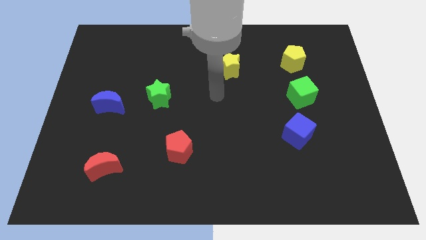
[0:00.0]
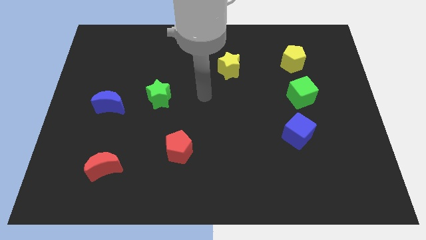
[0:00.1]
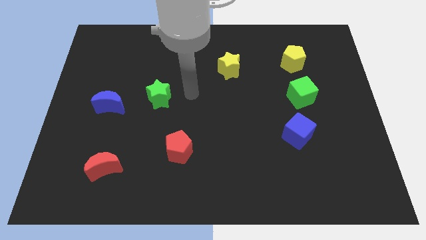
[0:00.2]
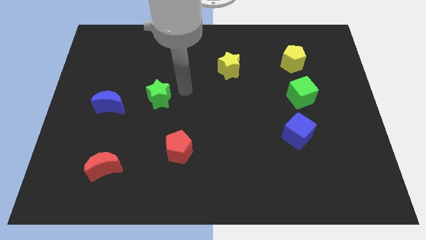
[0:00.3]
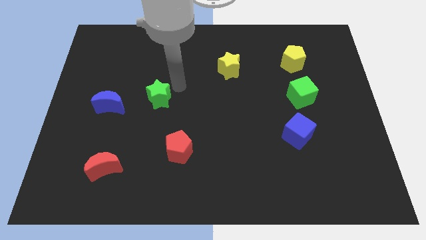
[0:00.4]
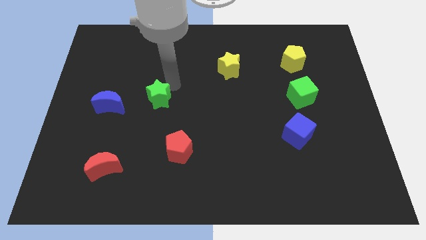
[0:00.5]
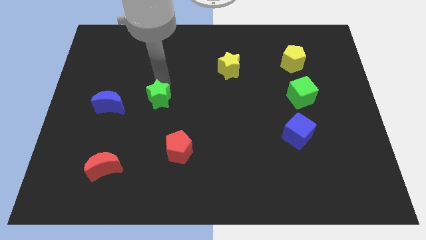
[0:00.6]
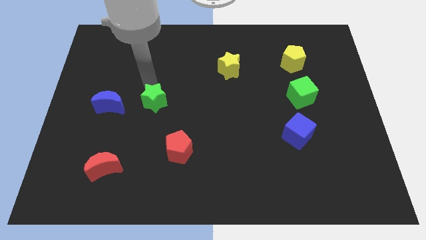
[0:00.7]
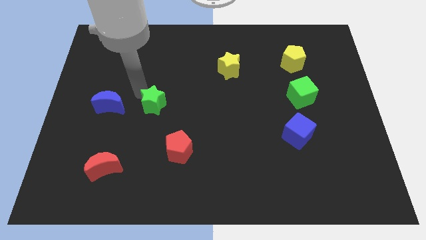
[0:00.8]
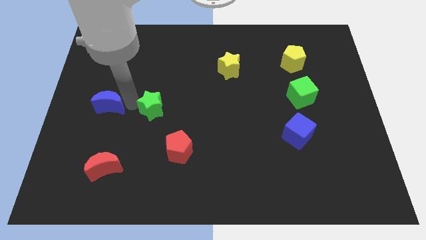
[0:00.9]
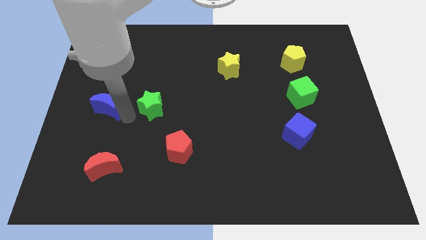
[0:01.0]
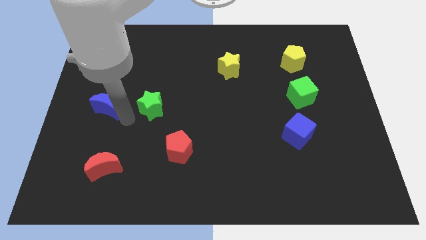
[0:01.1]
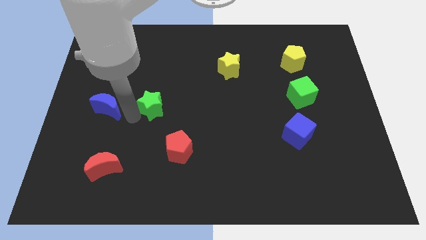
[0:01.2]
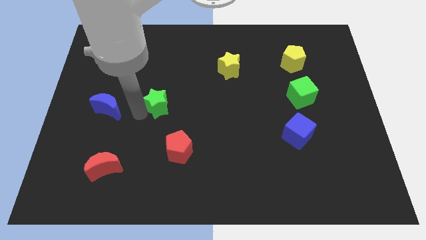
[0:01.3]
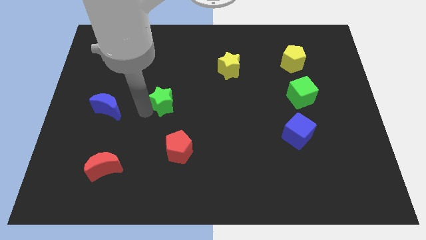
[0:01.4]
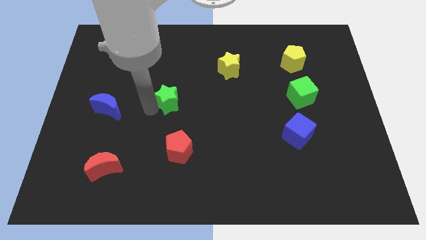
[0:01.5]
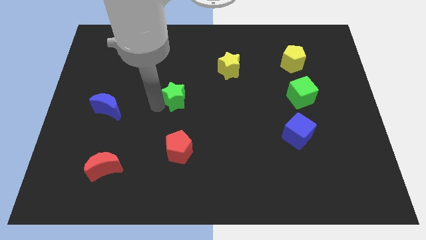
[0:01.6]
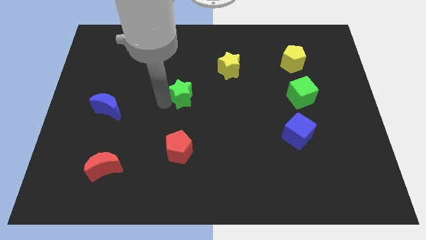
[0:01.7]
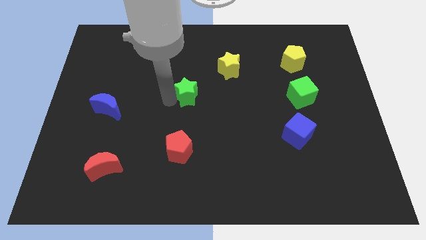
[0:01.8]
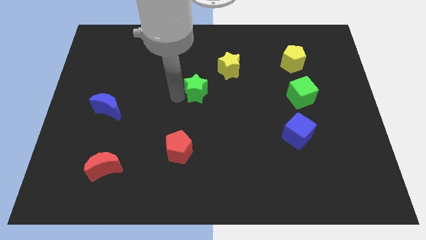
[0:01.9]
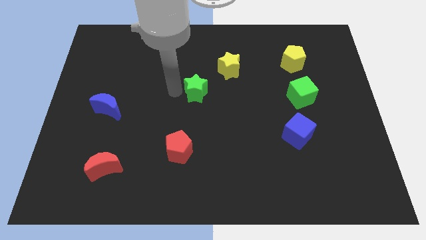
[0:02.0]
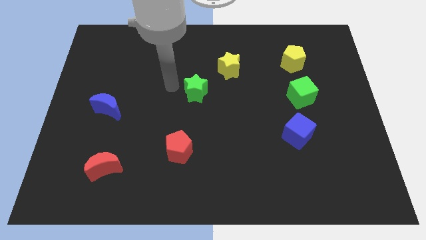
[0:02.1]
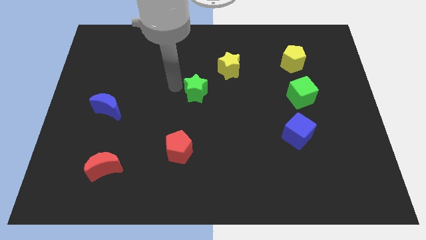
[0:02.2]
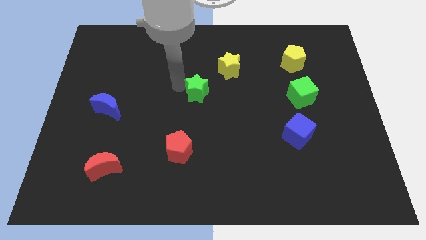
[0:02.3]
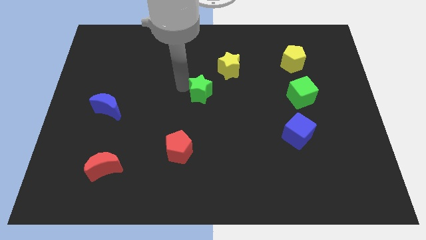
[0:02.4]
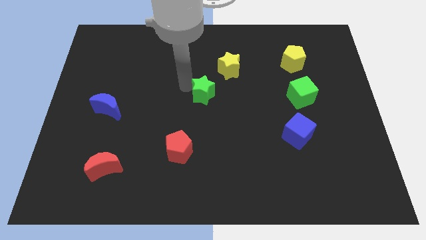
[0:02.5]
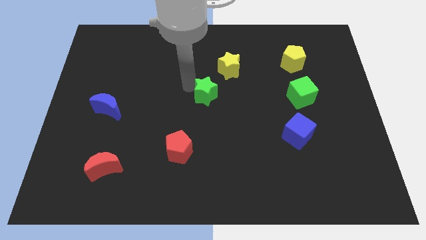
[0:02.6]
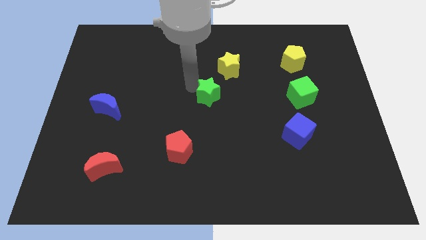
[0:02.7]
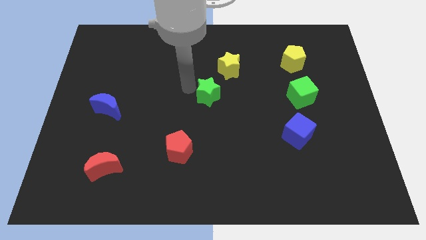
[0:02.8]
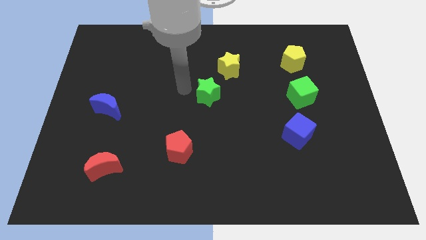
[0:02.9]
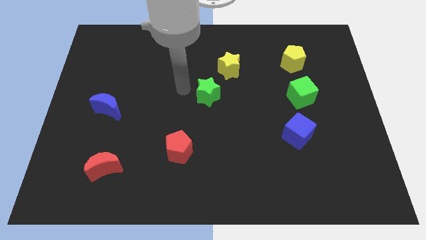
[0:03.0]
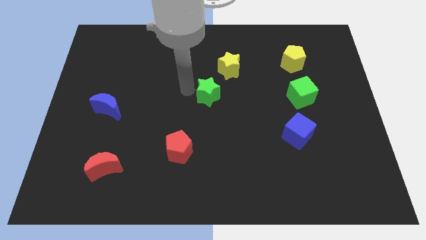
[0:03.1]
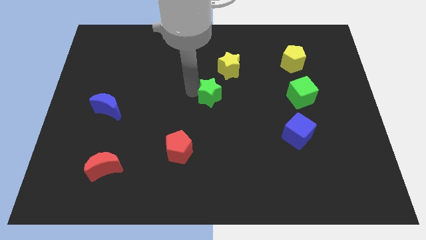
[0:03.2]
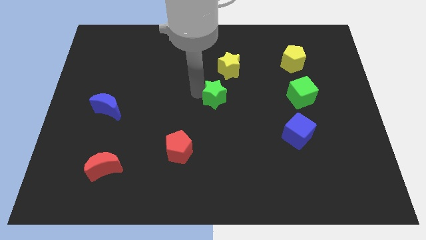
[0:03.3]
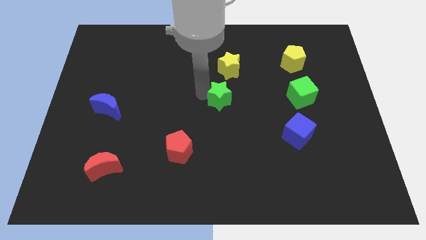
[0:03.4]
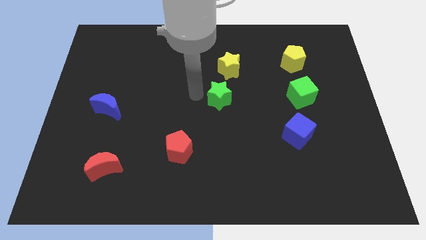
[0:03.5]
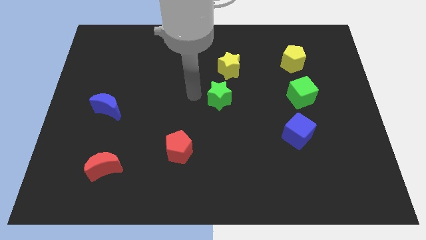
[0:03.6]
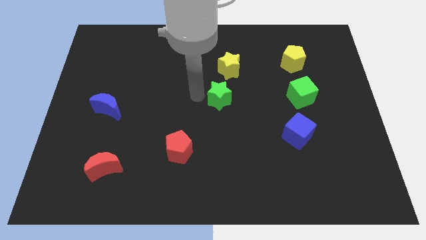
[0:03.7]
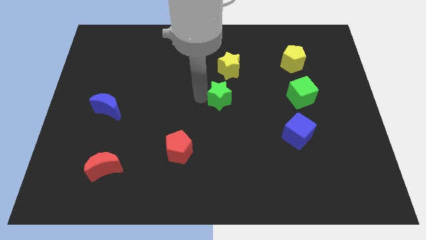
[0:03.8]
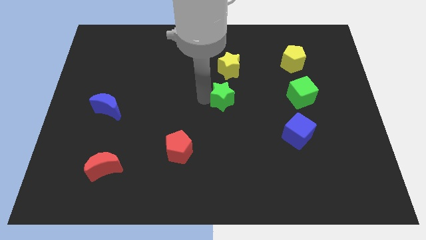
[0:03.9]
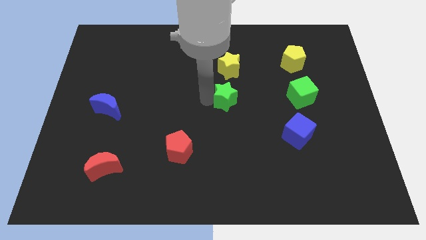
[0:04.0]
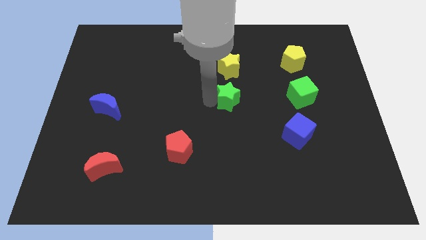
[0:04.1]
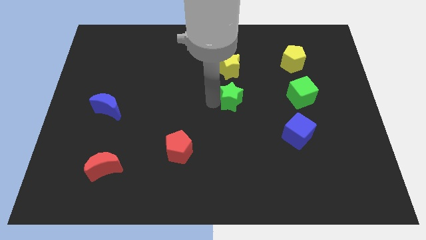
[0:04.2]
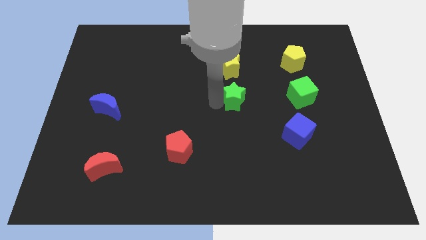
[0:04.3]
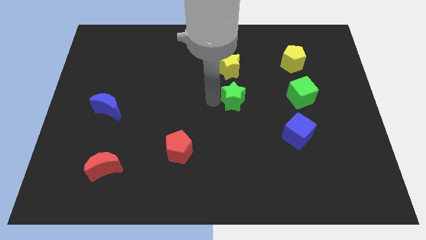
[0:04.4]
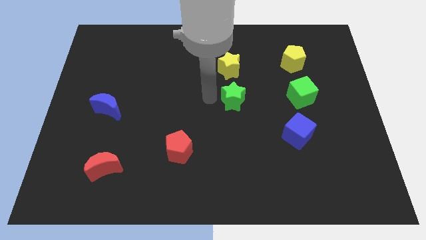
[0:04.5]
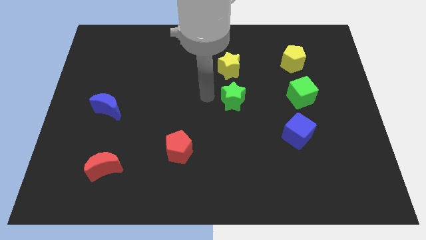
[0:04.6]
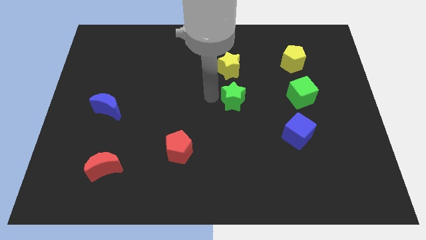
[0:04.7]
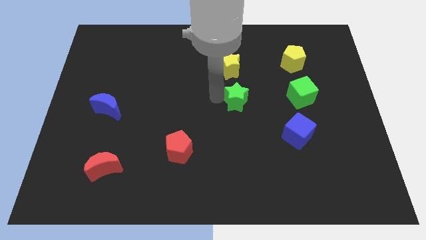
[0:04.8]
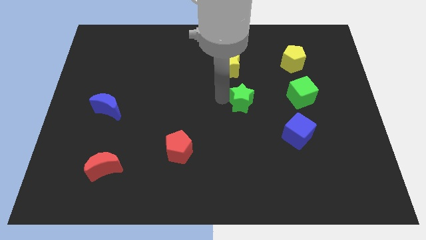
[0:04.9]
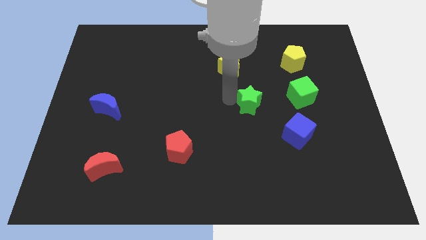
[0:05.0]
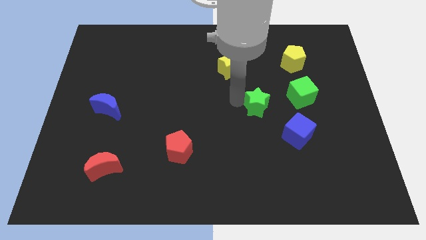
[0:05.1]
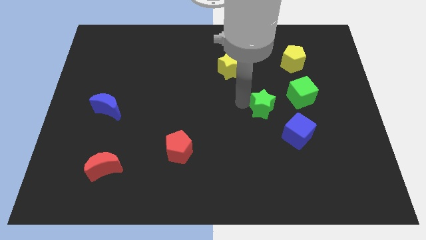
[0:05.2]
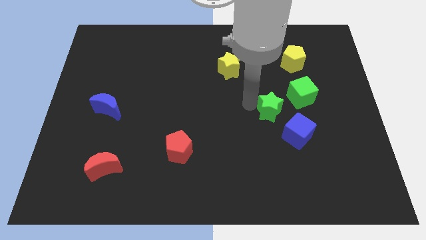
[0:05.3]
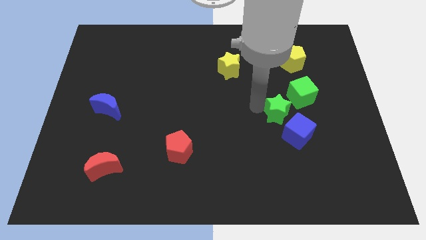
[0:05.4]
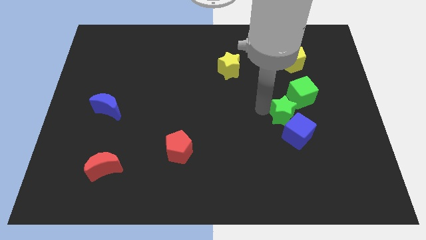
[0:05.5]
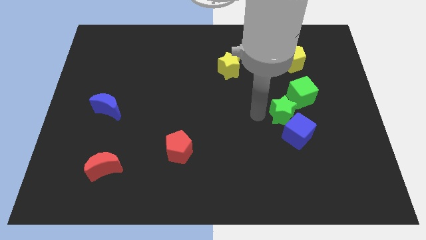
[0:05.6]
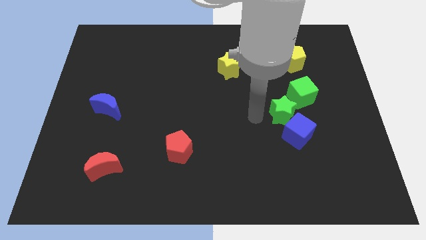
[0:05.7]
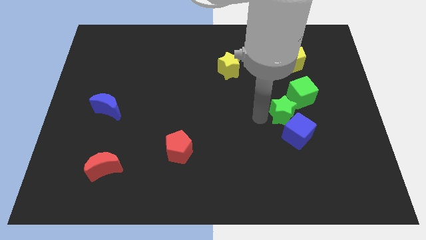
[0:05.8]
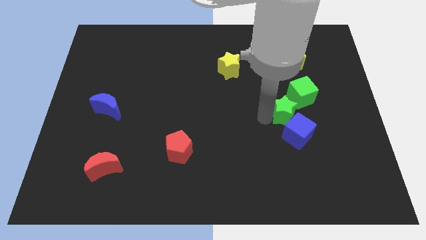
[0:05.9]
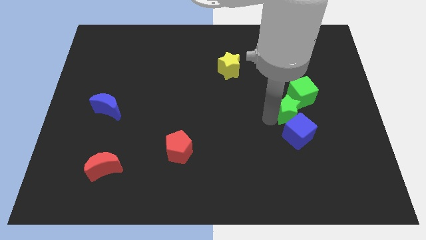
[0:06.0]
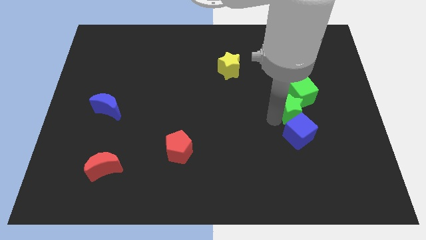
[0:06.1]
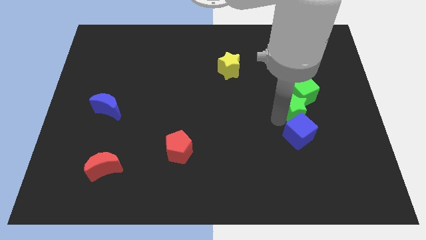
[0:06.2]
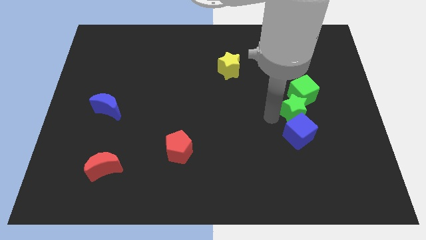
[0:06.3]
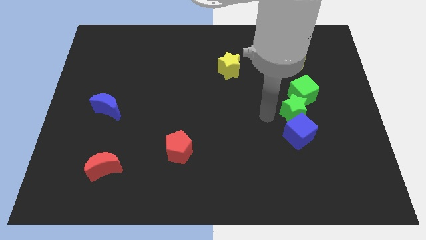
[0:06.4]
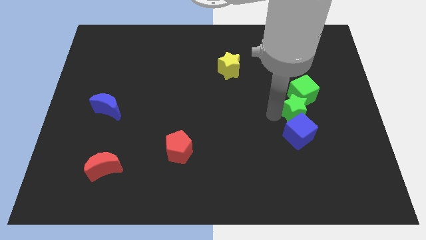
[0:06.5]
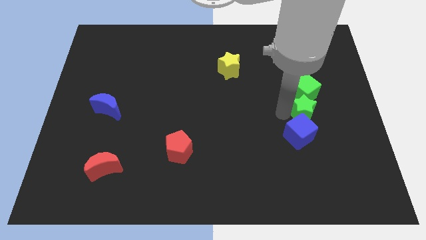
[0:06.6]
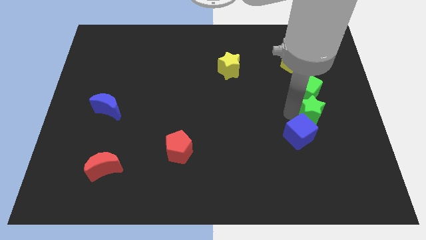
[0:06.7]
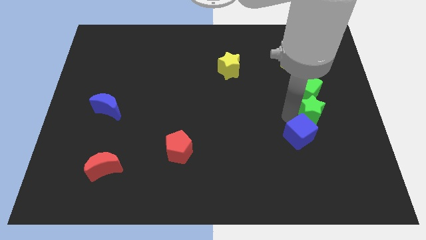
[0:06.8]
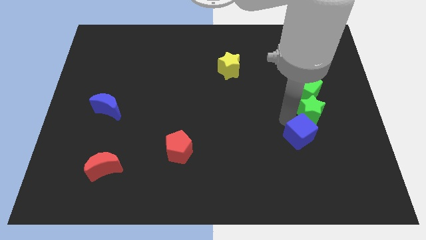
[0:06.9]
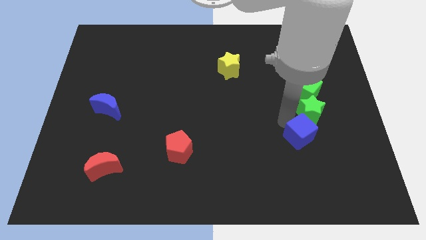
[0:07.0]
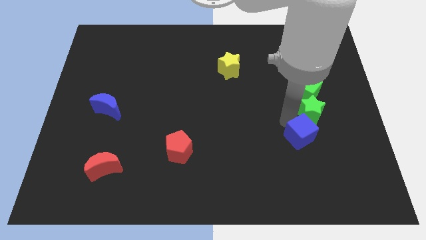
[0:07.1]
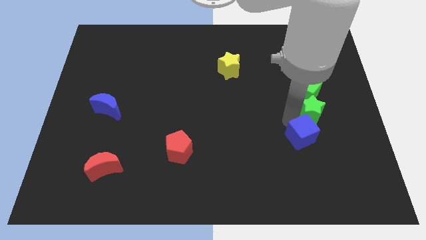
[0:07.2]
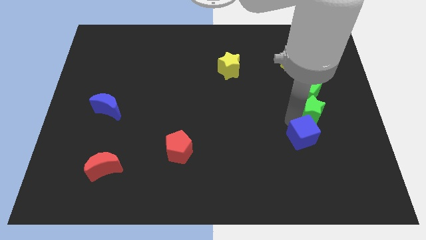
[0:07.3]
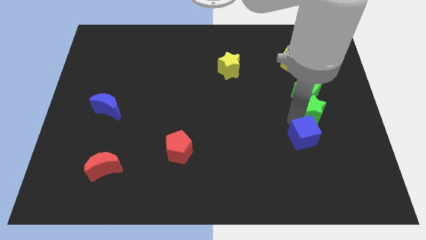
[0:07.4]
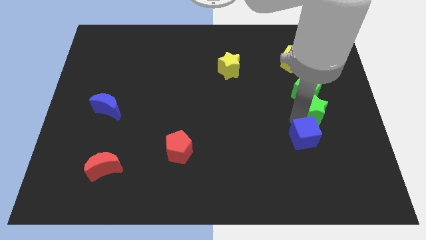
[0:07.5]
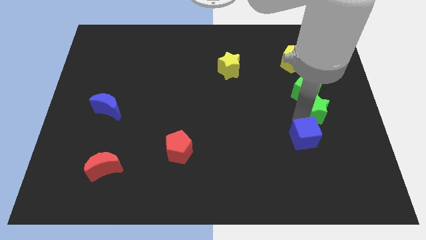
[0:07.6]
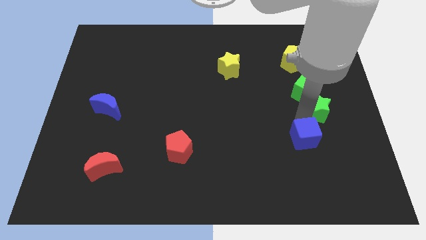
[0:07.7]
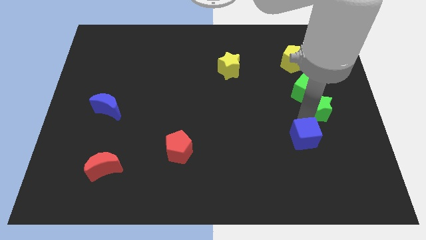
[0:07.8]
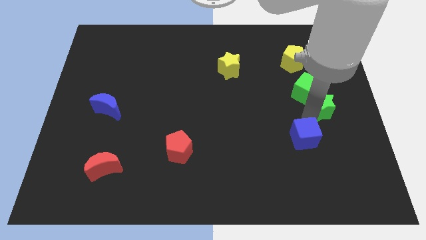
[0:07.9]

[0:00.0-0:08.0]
put the green star to the right side
